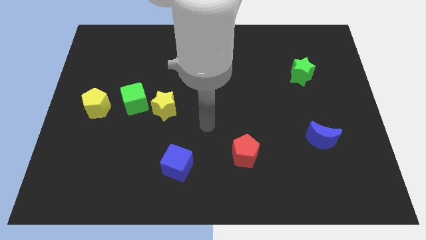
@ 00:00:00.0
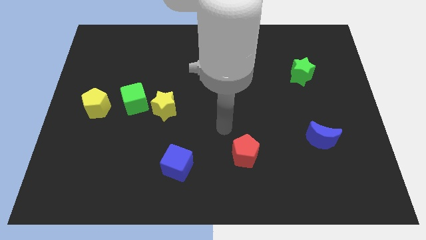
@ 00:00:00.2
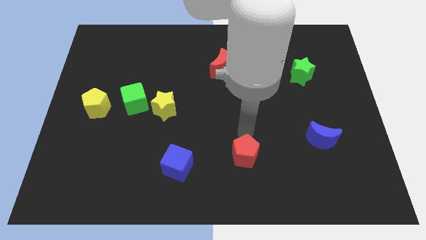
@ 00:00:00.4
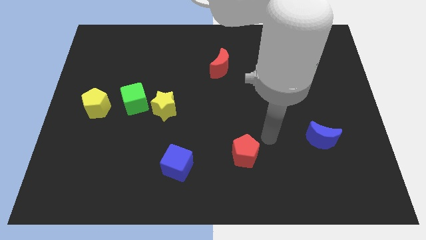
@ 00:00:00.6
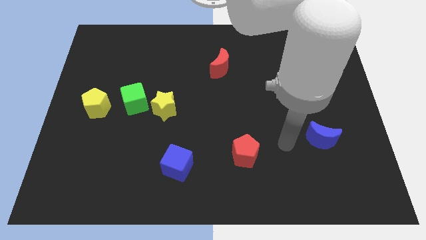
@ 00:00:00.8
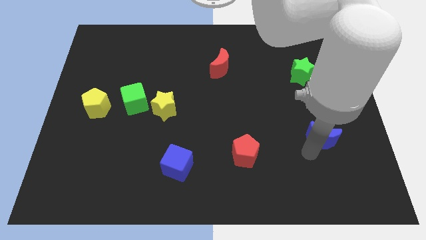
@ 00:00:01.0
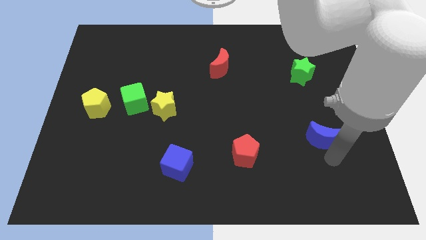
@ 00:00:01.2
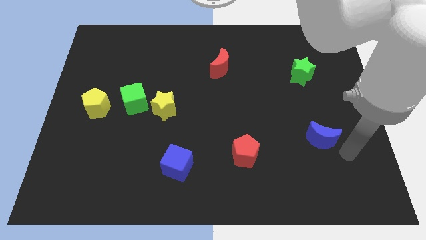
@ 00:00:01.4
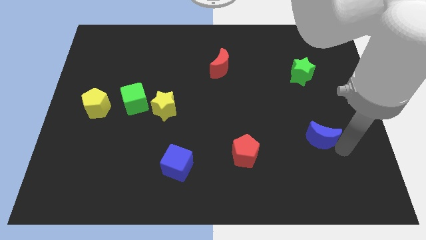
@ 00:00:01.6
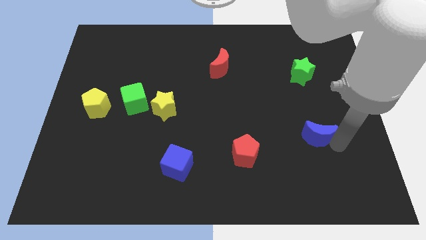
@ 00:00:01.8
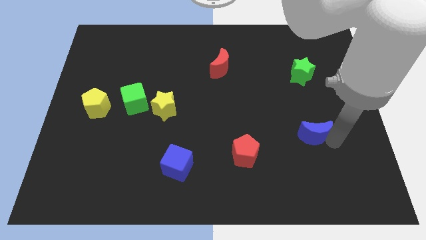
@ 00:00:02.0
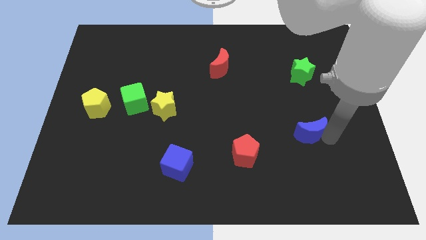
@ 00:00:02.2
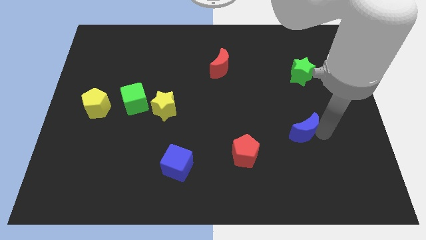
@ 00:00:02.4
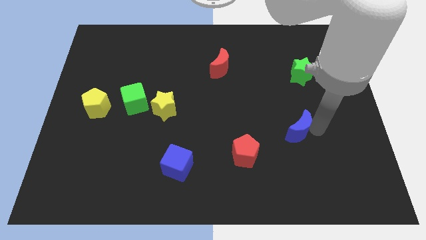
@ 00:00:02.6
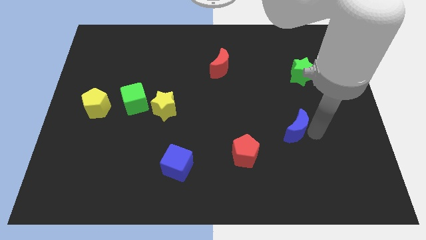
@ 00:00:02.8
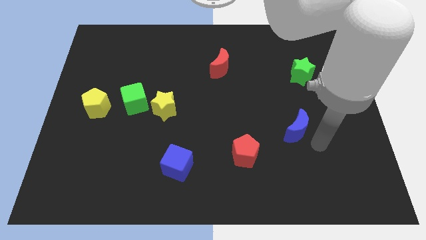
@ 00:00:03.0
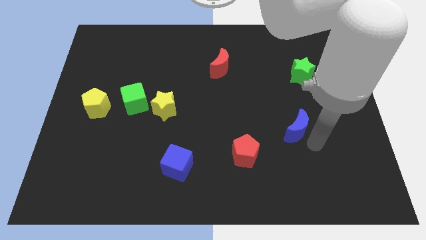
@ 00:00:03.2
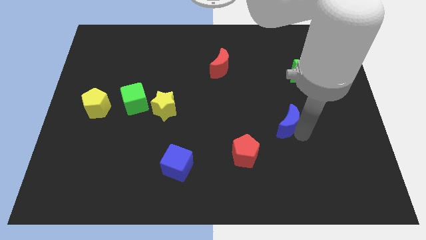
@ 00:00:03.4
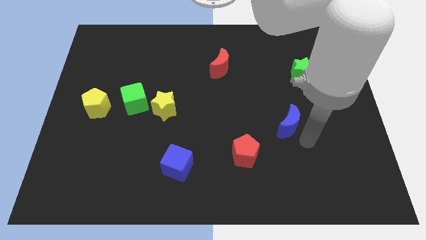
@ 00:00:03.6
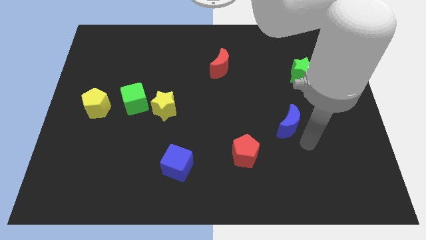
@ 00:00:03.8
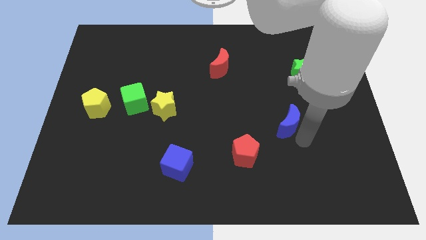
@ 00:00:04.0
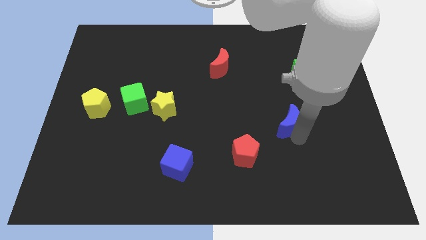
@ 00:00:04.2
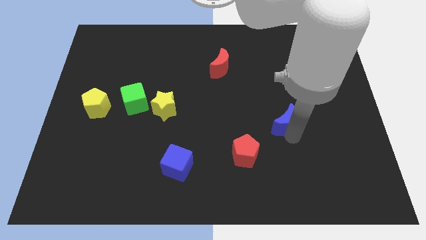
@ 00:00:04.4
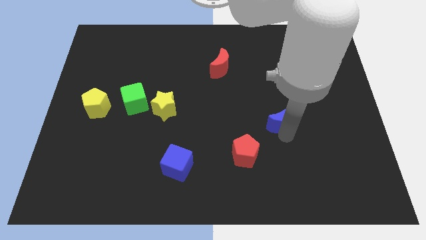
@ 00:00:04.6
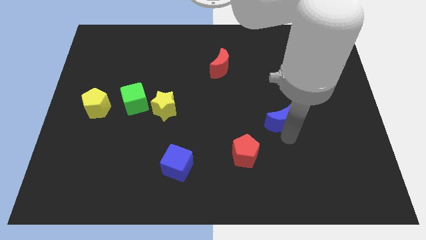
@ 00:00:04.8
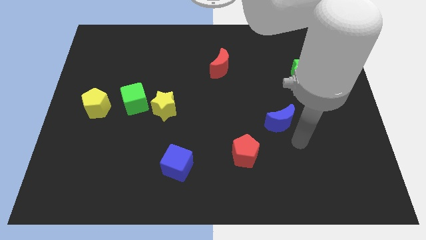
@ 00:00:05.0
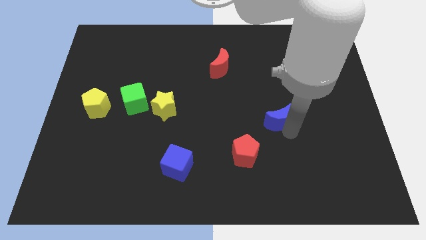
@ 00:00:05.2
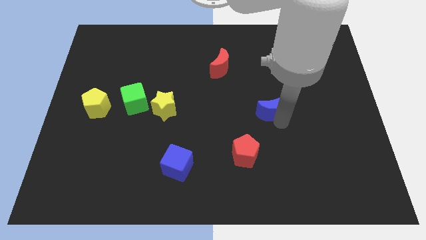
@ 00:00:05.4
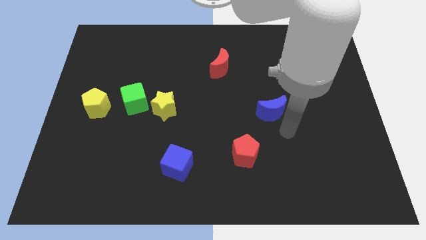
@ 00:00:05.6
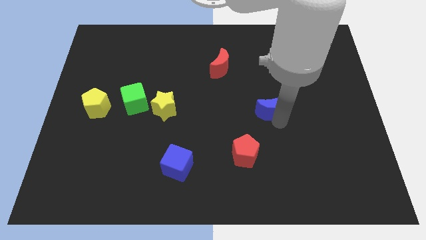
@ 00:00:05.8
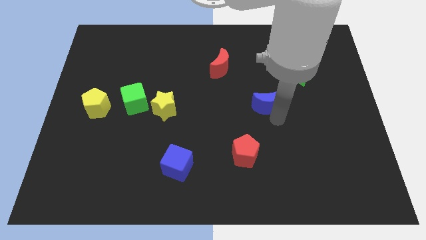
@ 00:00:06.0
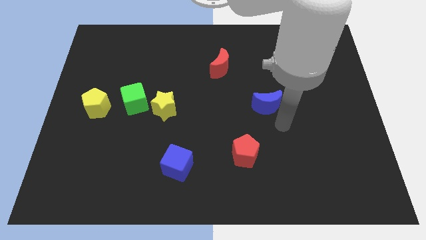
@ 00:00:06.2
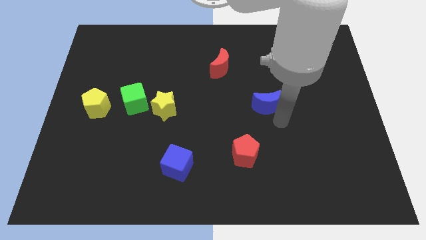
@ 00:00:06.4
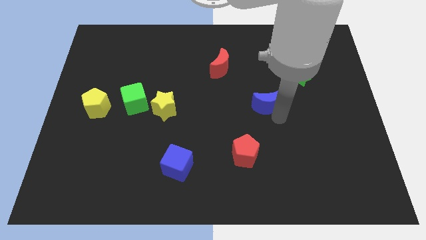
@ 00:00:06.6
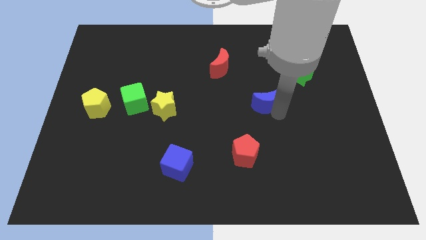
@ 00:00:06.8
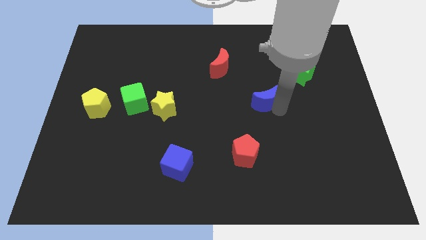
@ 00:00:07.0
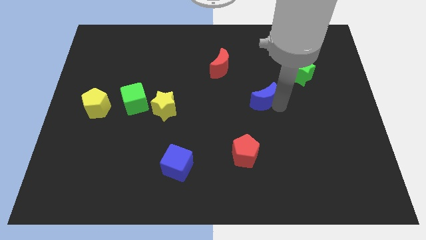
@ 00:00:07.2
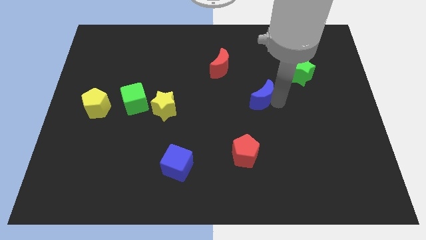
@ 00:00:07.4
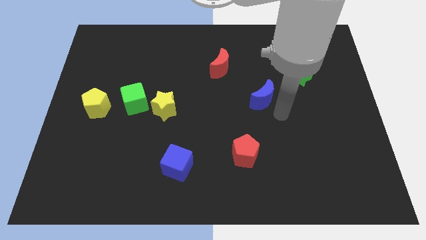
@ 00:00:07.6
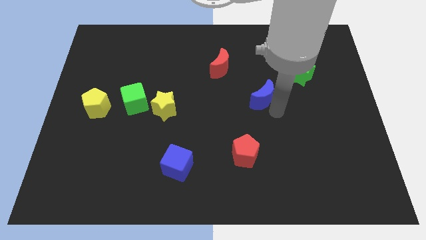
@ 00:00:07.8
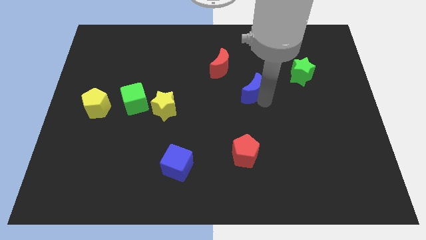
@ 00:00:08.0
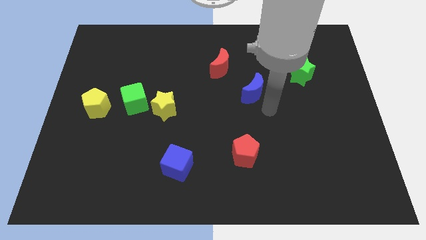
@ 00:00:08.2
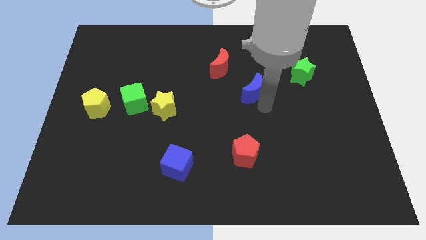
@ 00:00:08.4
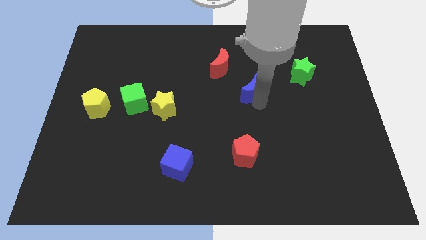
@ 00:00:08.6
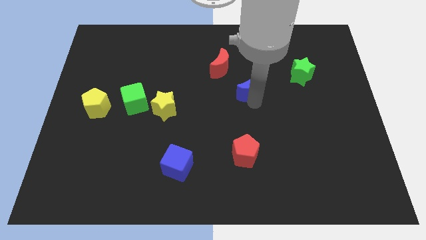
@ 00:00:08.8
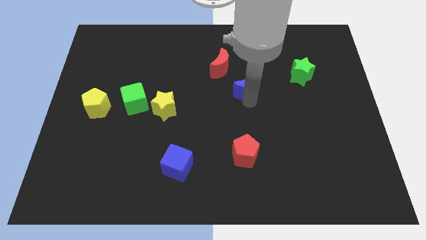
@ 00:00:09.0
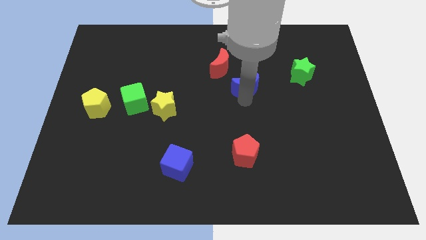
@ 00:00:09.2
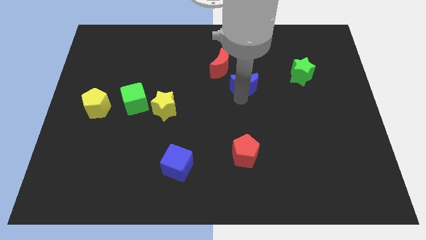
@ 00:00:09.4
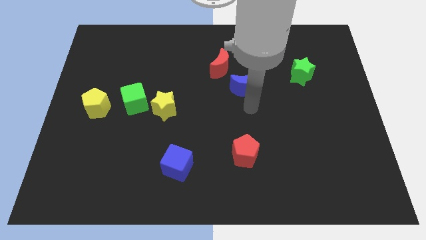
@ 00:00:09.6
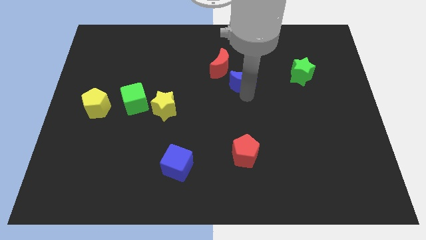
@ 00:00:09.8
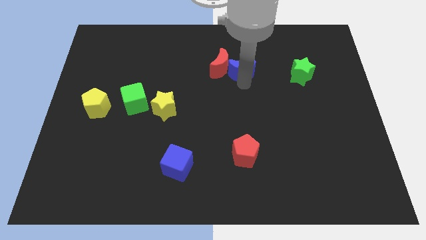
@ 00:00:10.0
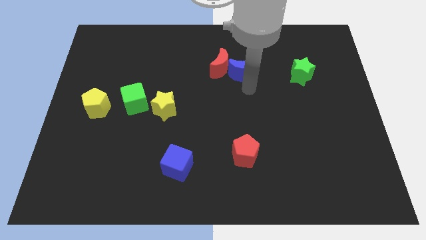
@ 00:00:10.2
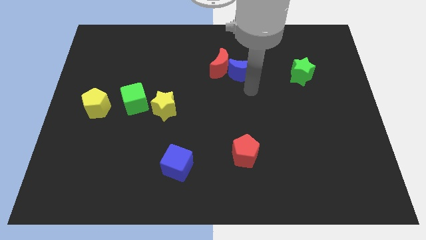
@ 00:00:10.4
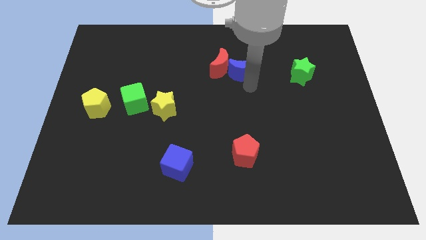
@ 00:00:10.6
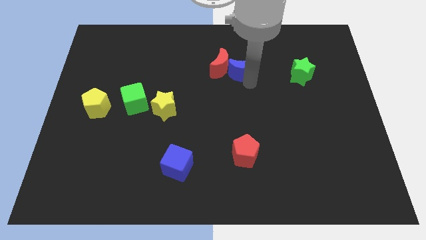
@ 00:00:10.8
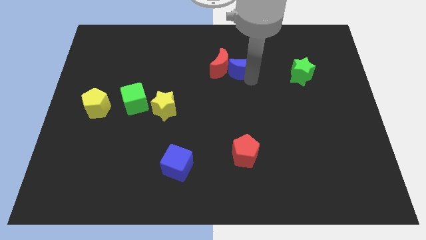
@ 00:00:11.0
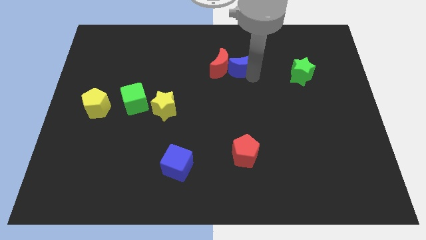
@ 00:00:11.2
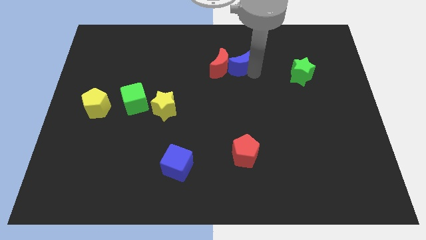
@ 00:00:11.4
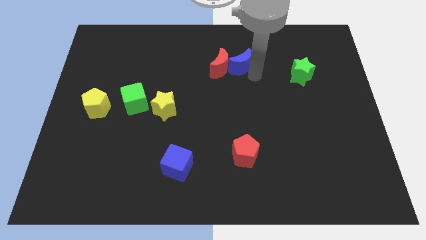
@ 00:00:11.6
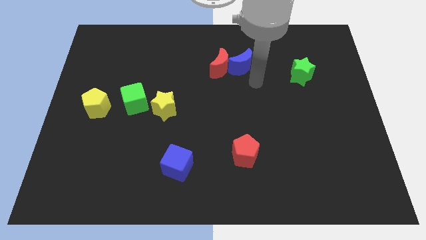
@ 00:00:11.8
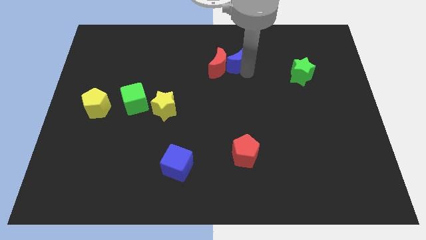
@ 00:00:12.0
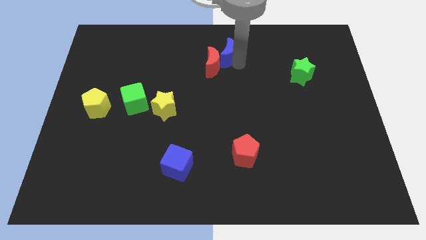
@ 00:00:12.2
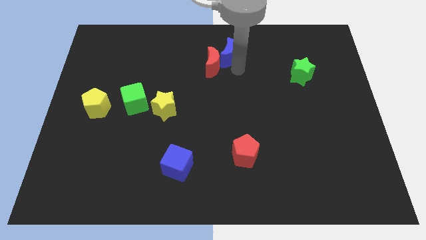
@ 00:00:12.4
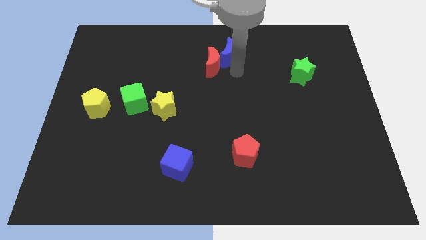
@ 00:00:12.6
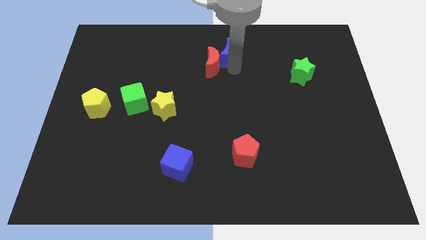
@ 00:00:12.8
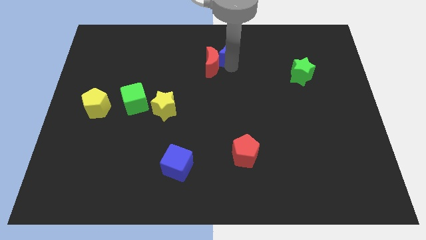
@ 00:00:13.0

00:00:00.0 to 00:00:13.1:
move the blue moon to the top side

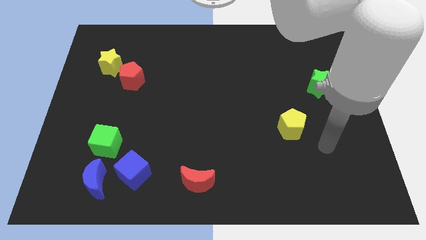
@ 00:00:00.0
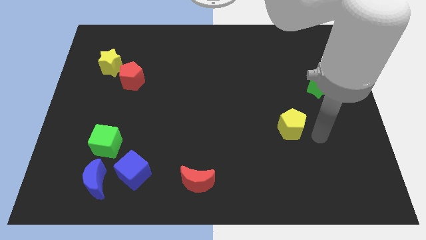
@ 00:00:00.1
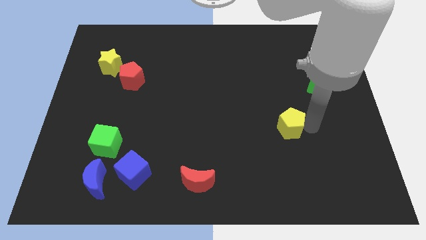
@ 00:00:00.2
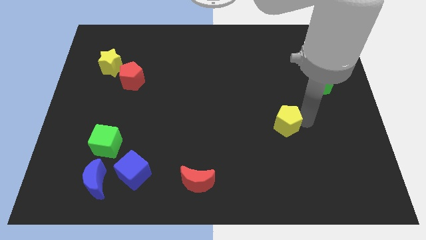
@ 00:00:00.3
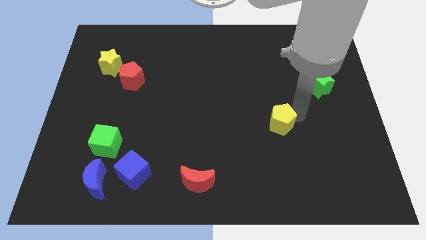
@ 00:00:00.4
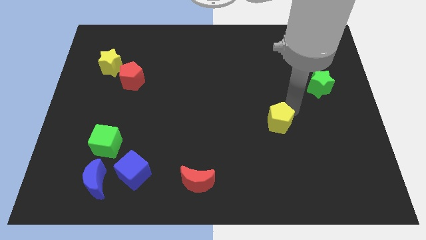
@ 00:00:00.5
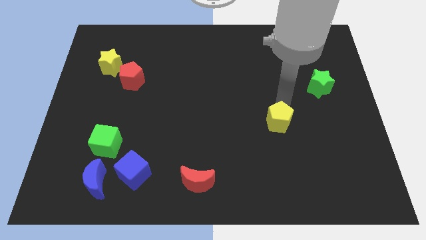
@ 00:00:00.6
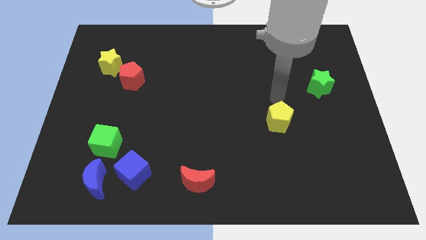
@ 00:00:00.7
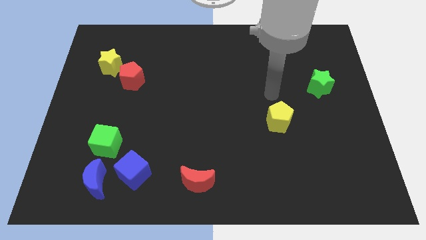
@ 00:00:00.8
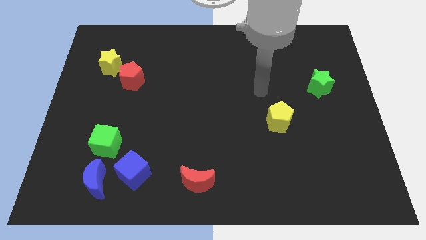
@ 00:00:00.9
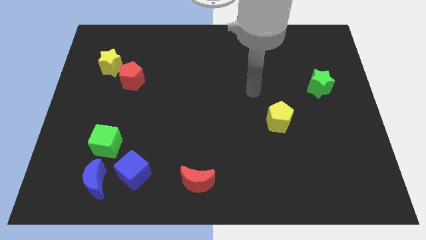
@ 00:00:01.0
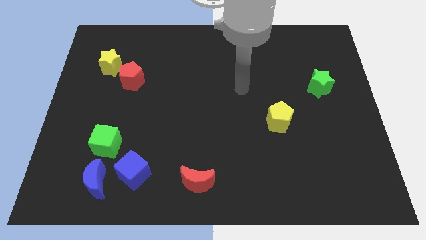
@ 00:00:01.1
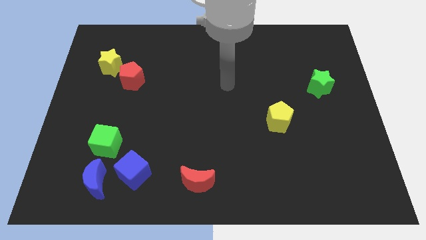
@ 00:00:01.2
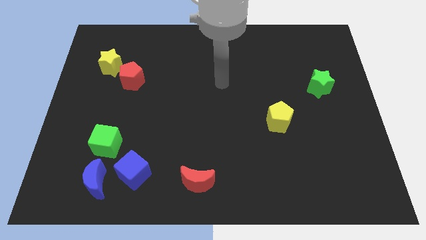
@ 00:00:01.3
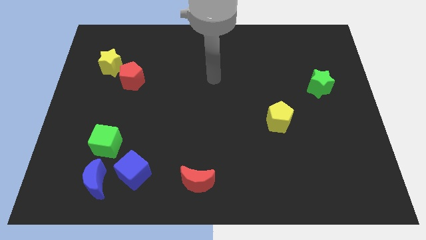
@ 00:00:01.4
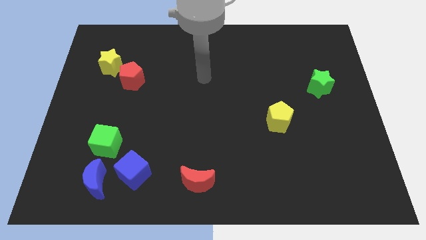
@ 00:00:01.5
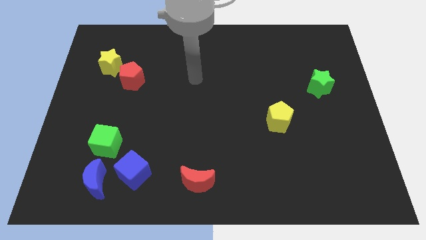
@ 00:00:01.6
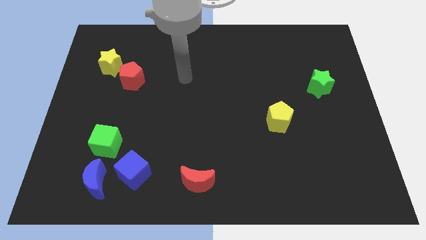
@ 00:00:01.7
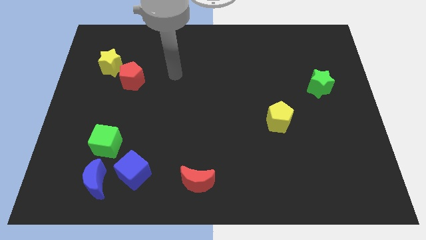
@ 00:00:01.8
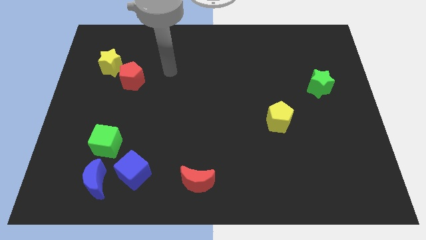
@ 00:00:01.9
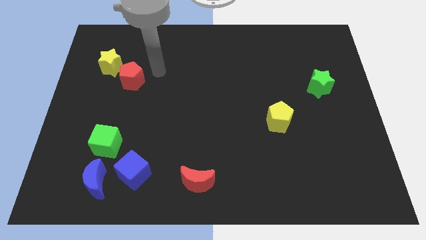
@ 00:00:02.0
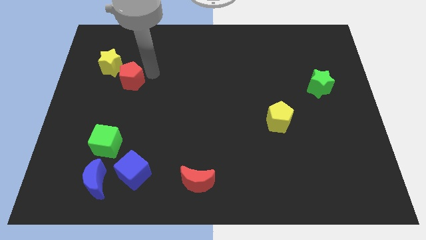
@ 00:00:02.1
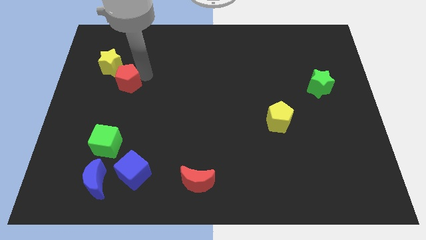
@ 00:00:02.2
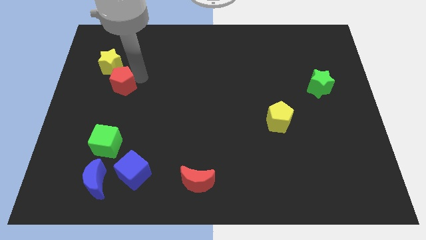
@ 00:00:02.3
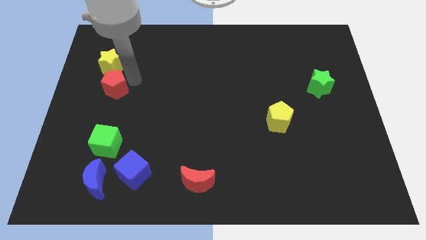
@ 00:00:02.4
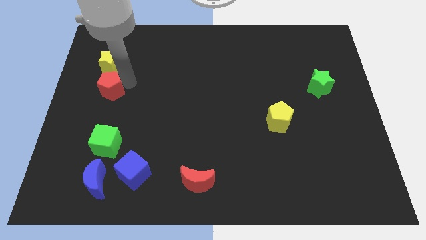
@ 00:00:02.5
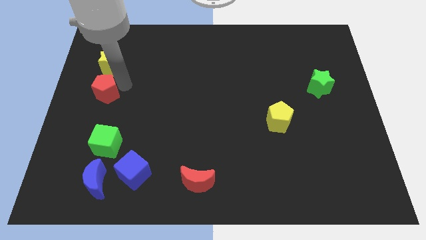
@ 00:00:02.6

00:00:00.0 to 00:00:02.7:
move the red pentagon to the left side
